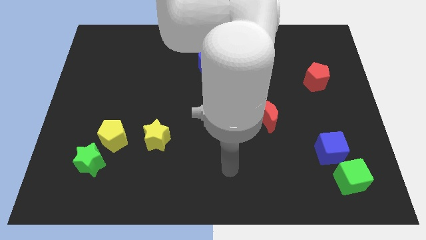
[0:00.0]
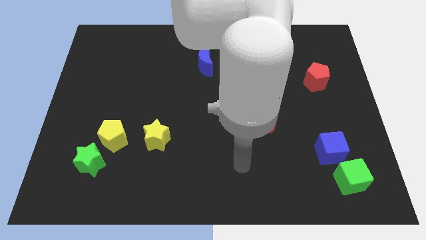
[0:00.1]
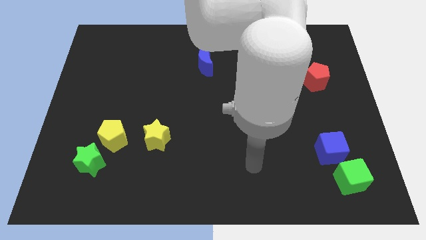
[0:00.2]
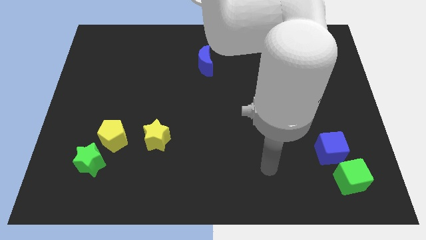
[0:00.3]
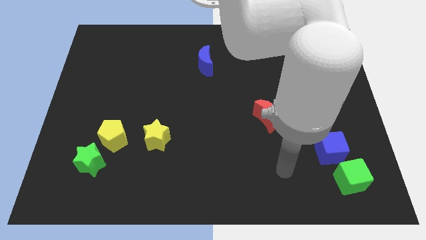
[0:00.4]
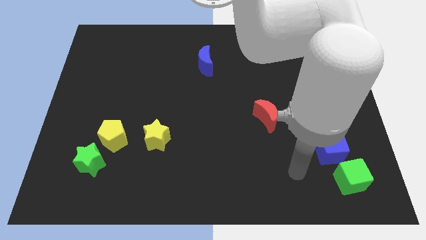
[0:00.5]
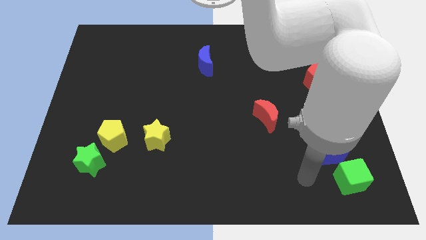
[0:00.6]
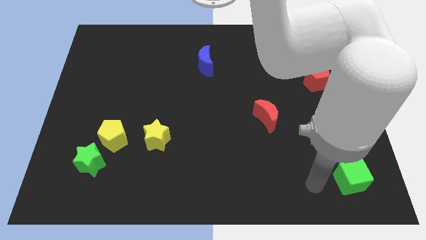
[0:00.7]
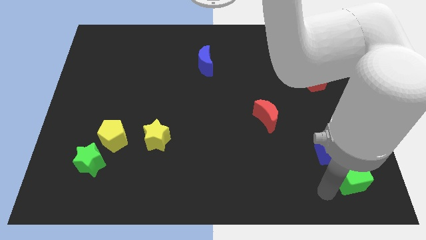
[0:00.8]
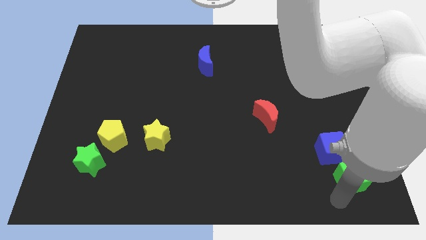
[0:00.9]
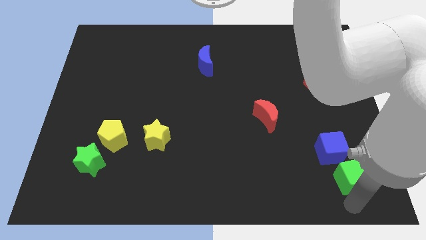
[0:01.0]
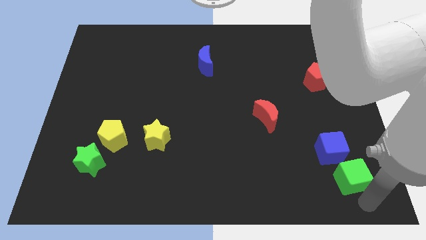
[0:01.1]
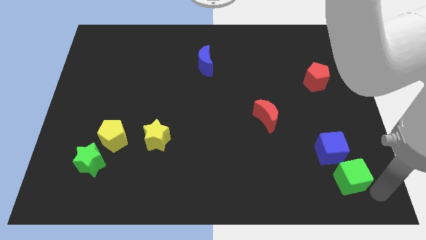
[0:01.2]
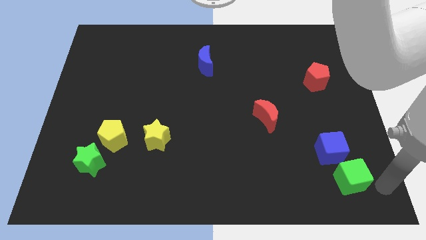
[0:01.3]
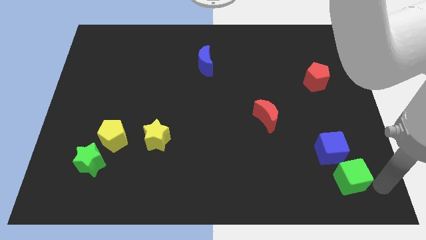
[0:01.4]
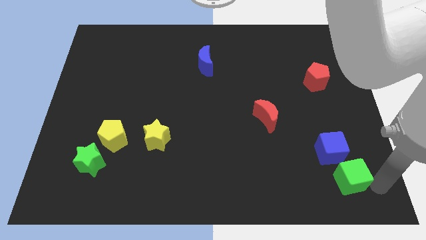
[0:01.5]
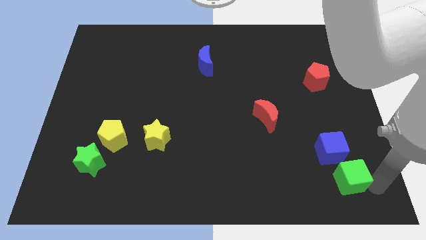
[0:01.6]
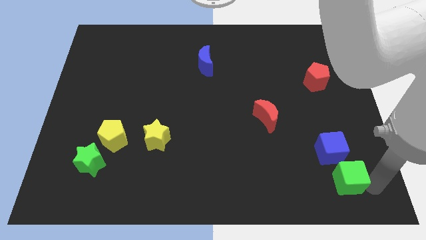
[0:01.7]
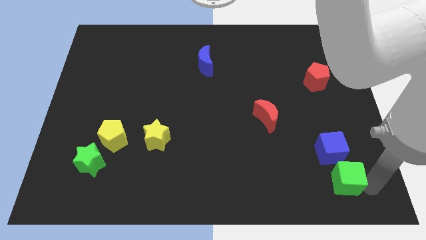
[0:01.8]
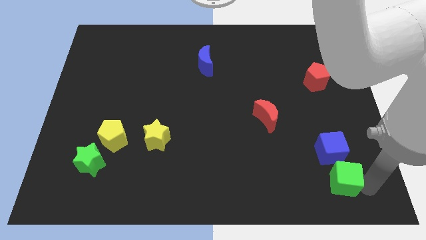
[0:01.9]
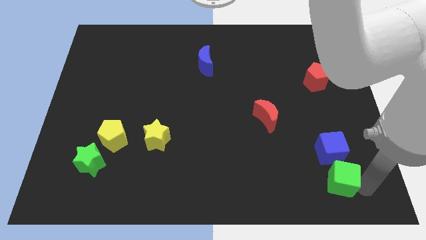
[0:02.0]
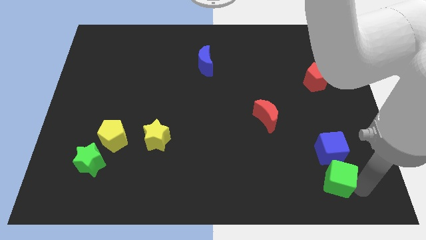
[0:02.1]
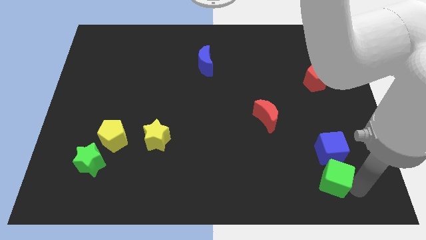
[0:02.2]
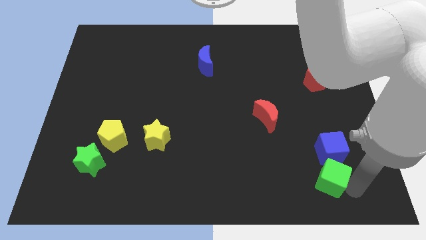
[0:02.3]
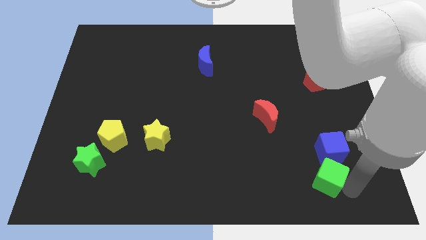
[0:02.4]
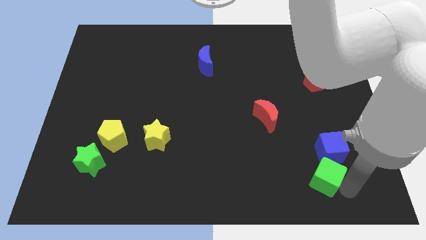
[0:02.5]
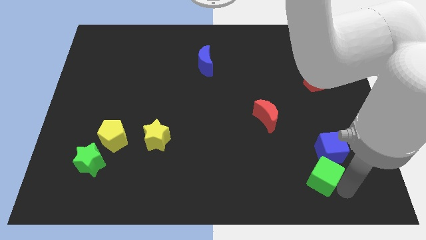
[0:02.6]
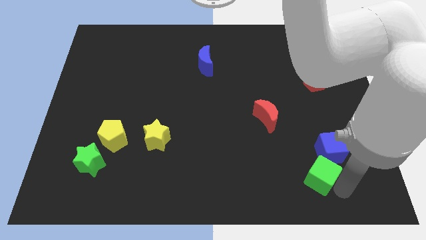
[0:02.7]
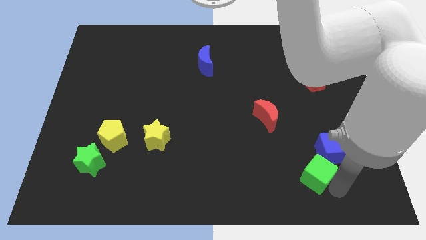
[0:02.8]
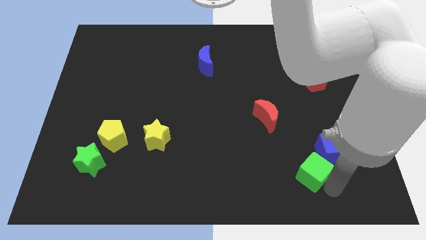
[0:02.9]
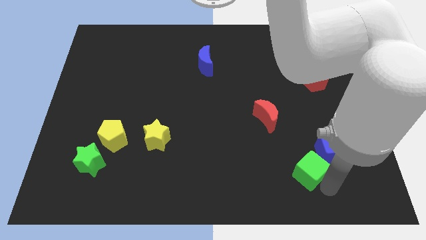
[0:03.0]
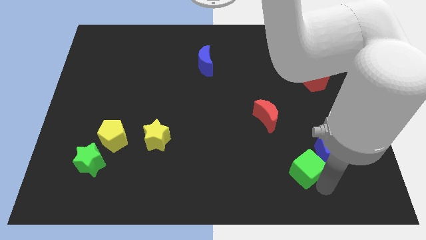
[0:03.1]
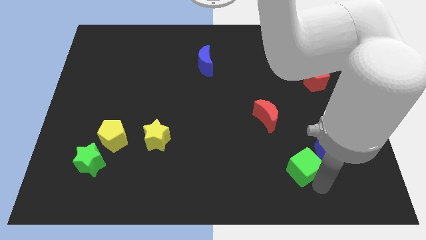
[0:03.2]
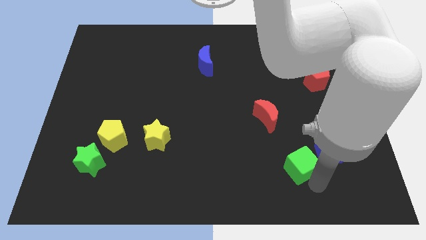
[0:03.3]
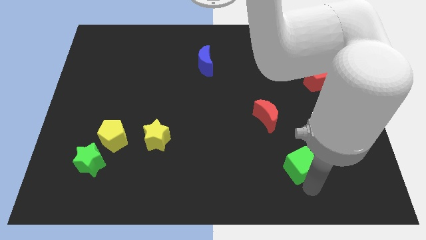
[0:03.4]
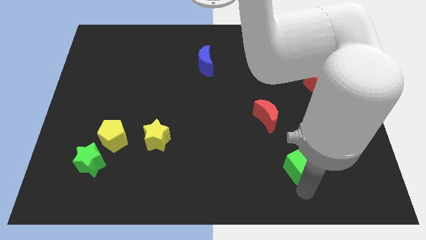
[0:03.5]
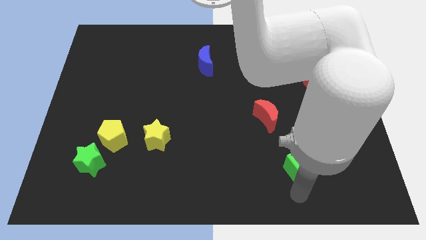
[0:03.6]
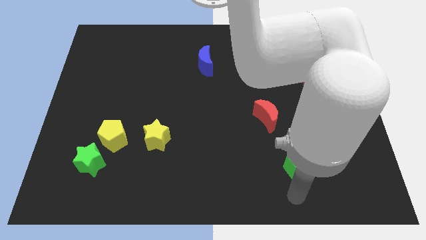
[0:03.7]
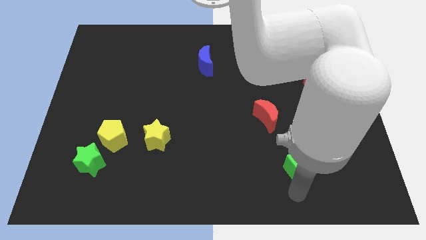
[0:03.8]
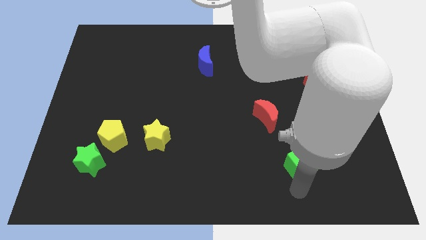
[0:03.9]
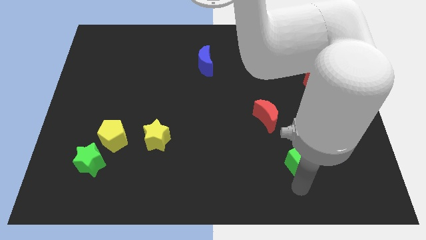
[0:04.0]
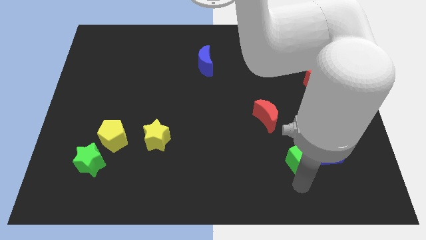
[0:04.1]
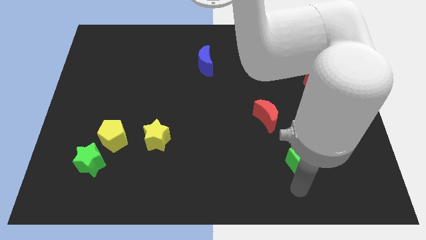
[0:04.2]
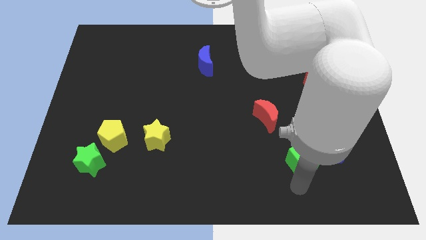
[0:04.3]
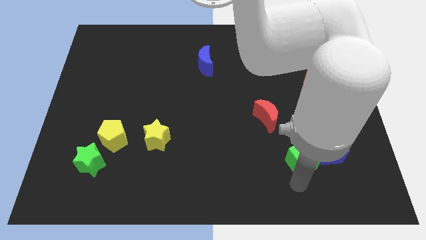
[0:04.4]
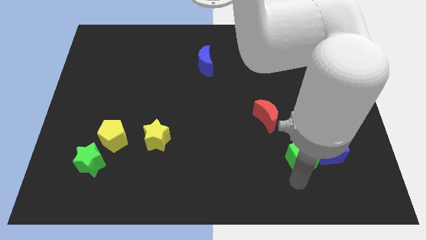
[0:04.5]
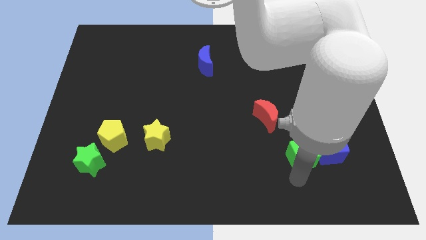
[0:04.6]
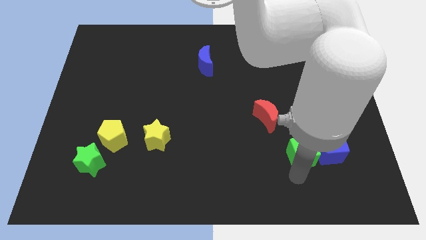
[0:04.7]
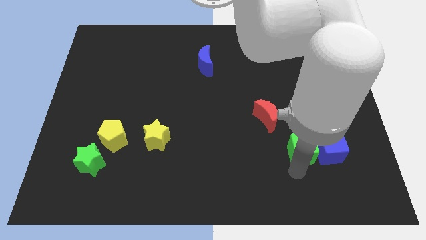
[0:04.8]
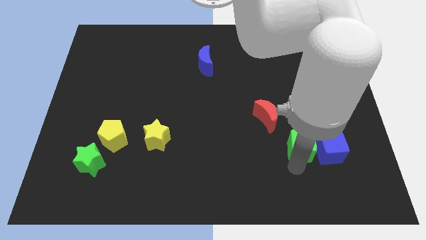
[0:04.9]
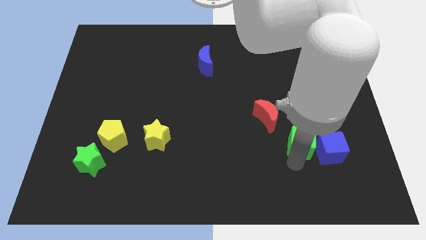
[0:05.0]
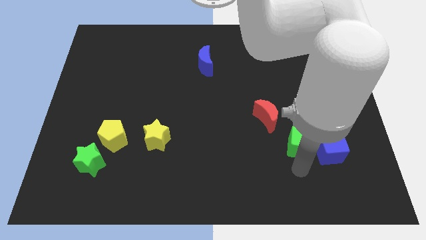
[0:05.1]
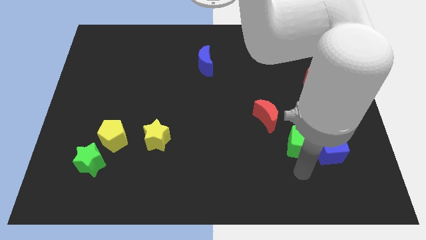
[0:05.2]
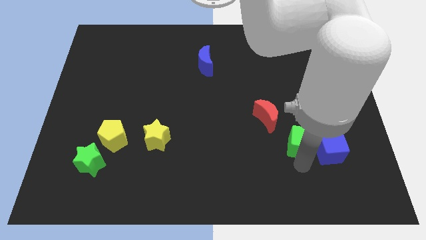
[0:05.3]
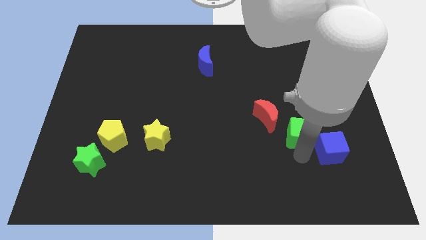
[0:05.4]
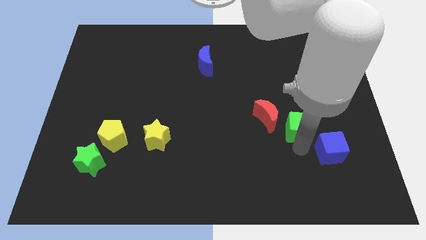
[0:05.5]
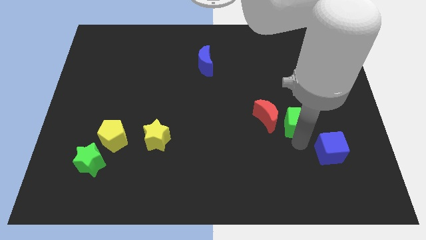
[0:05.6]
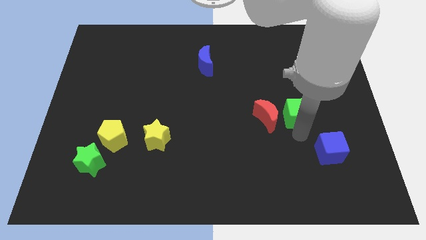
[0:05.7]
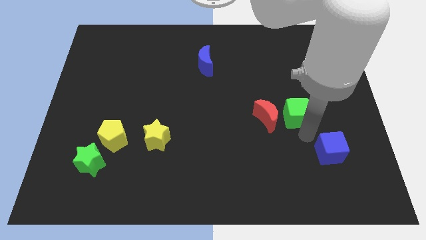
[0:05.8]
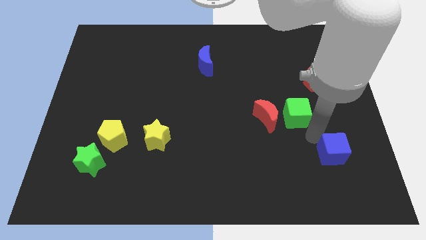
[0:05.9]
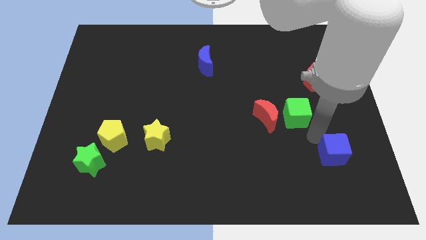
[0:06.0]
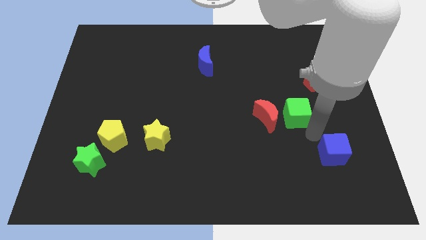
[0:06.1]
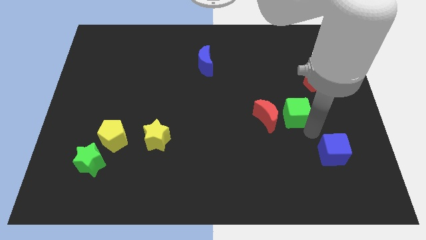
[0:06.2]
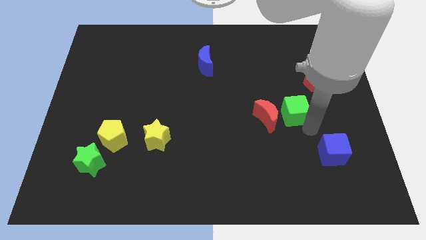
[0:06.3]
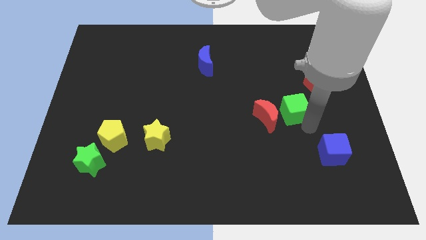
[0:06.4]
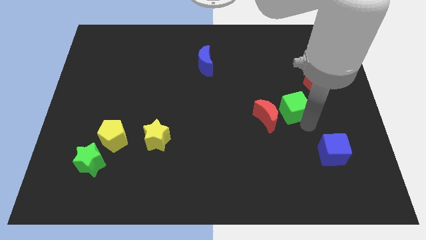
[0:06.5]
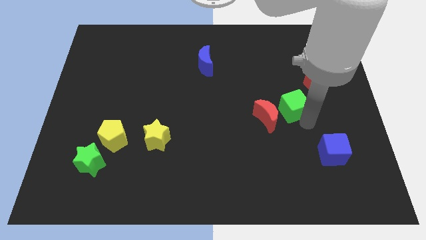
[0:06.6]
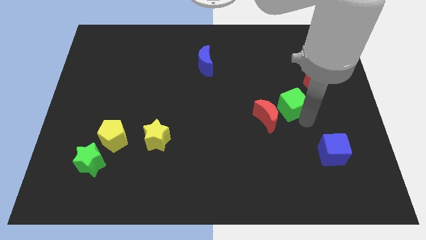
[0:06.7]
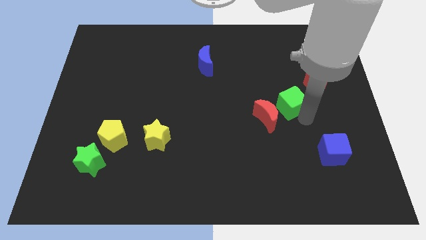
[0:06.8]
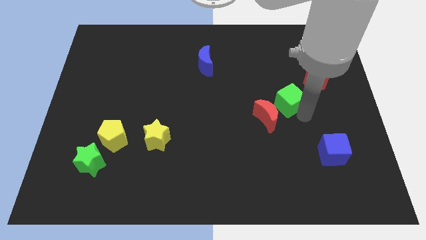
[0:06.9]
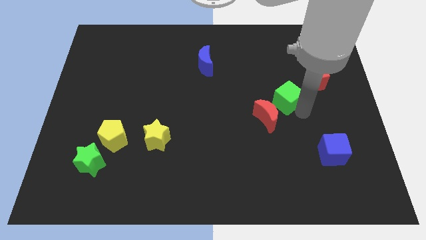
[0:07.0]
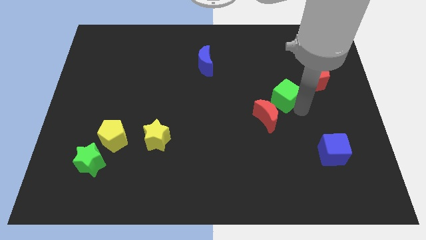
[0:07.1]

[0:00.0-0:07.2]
push the green cube to the top side of the red moon
